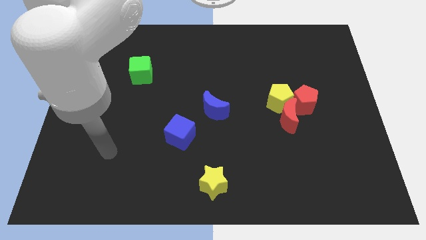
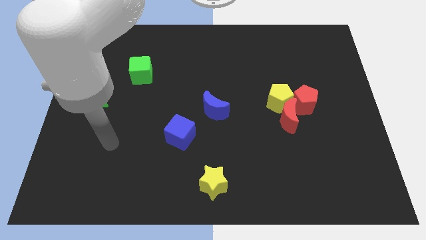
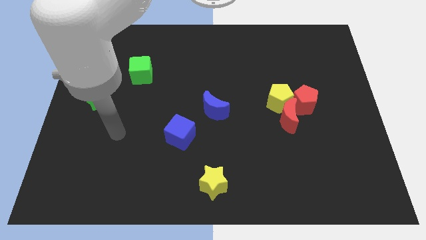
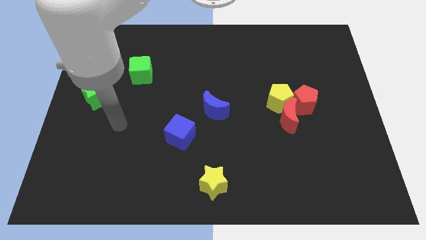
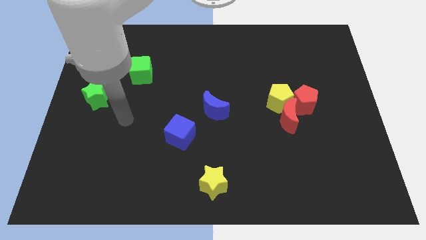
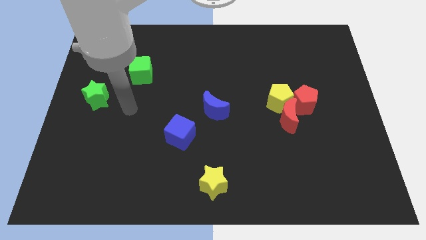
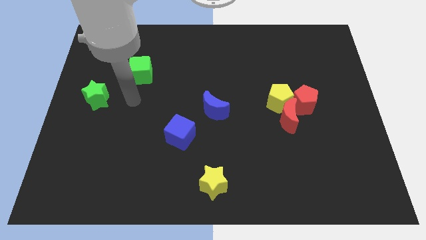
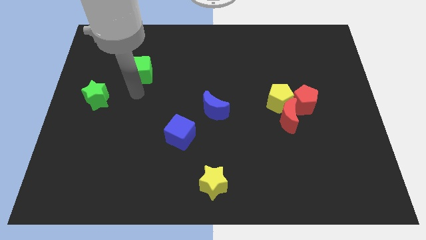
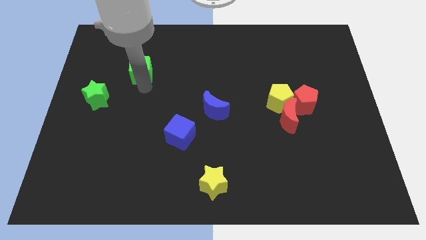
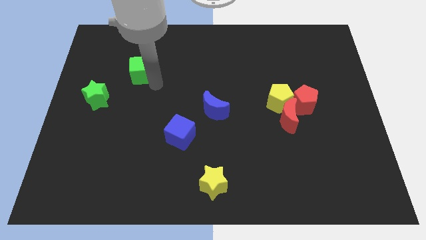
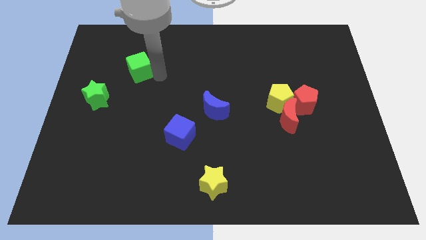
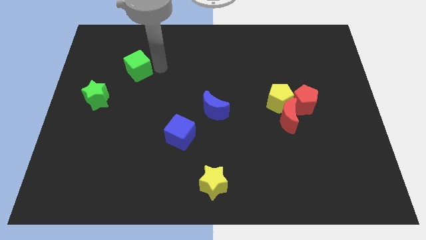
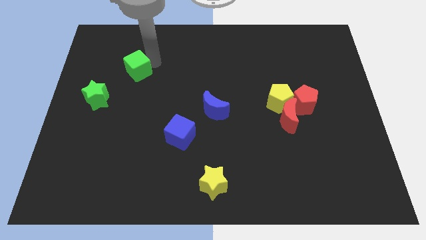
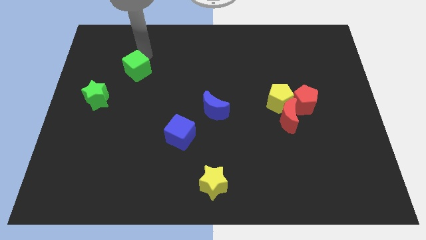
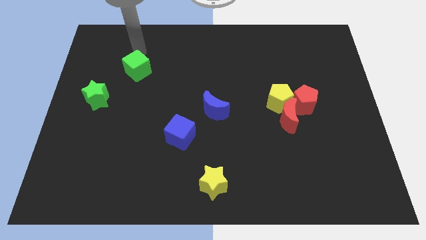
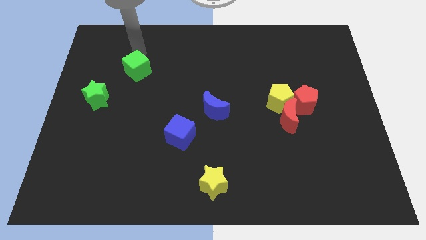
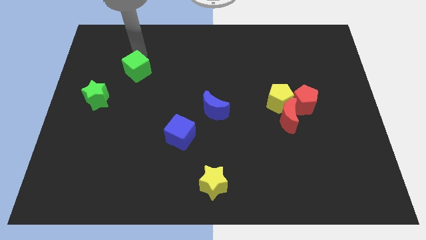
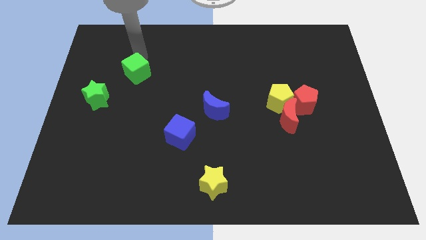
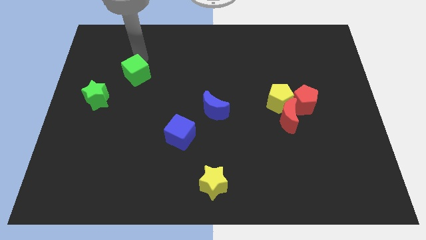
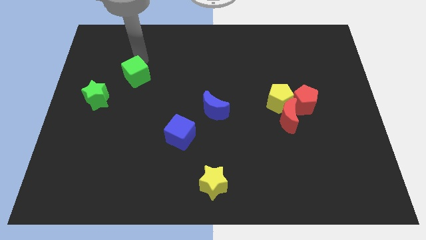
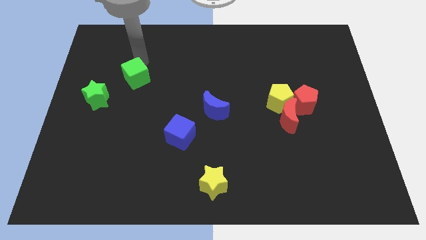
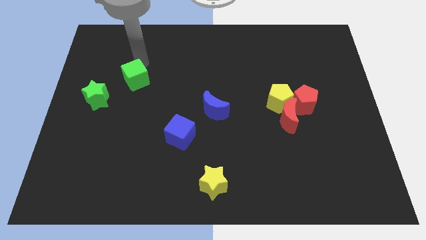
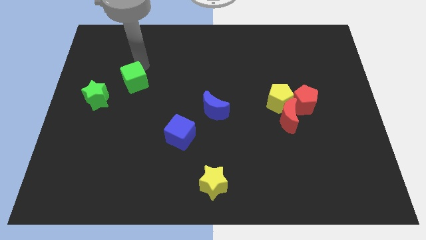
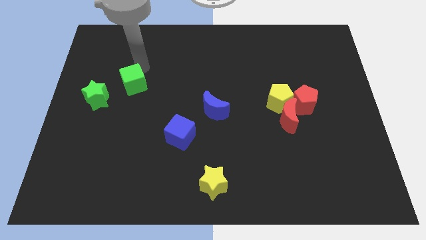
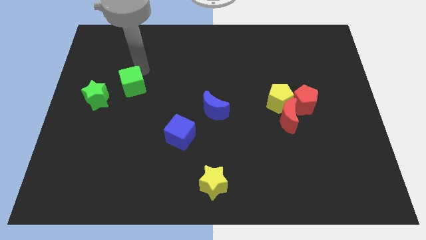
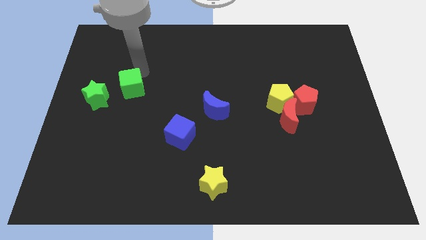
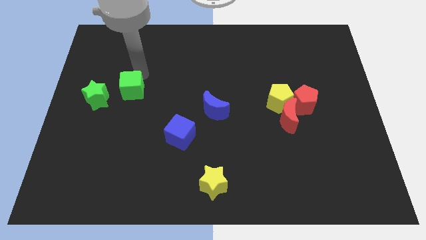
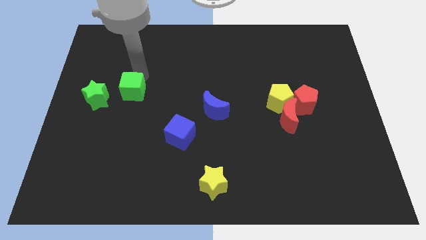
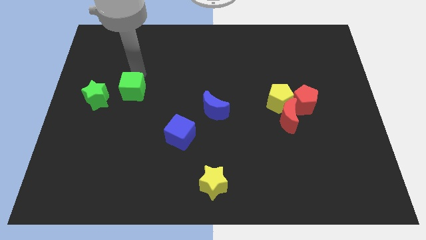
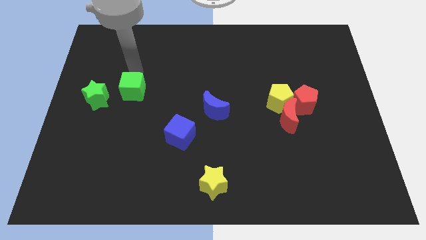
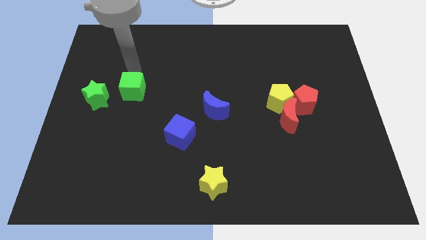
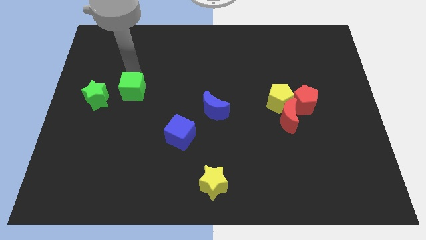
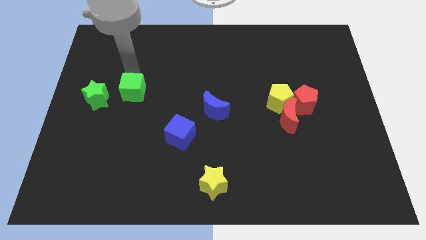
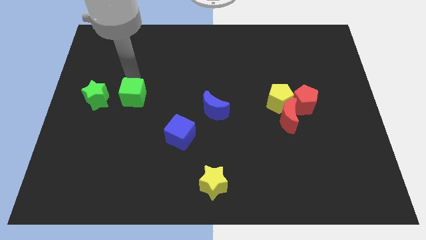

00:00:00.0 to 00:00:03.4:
slide the green cube downwards slightly

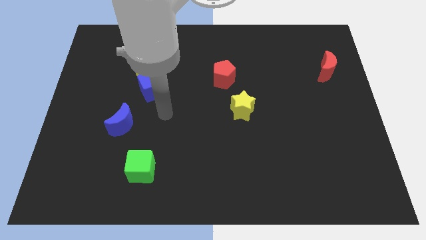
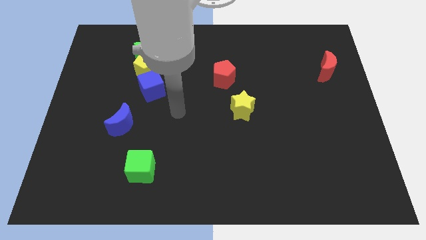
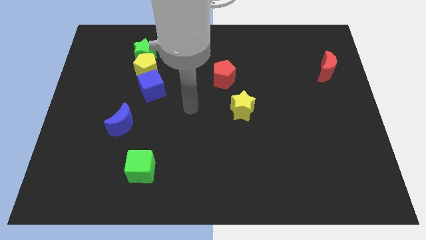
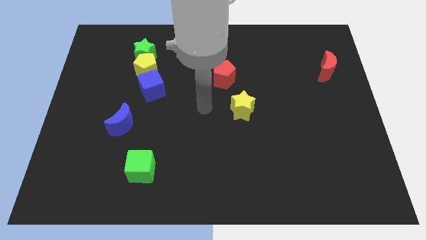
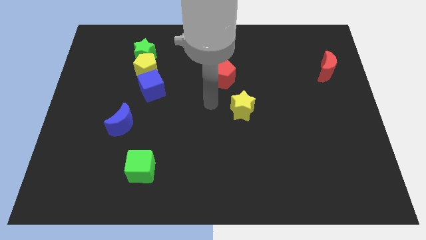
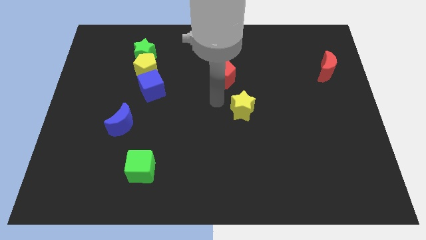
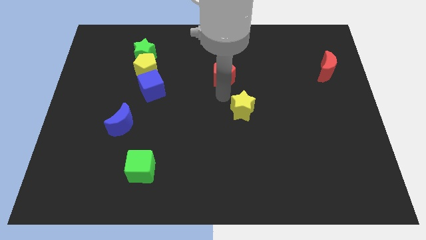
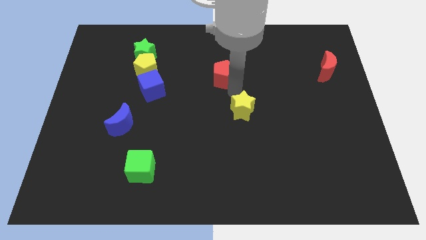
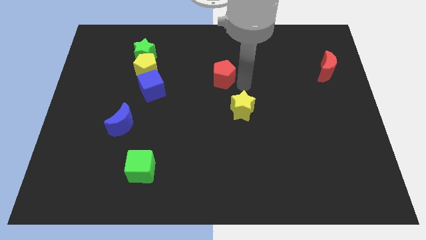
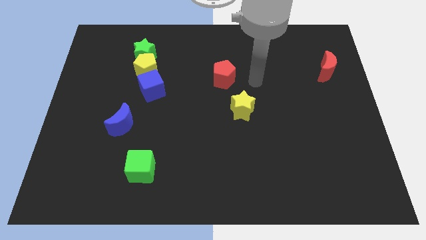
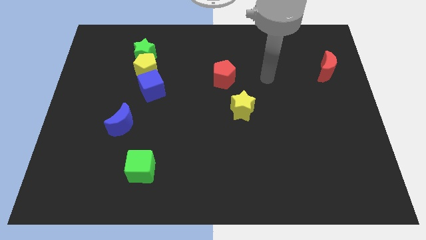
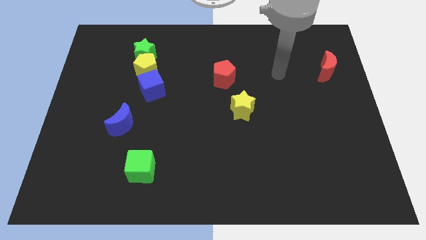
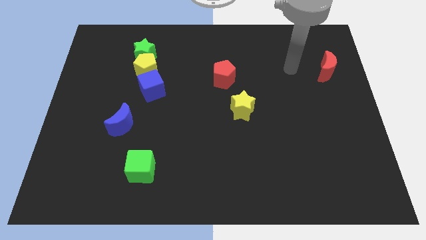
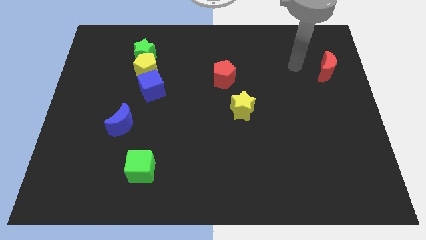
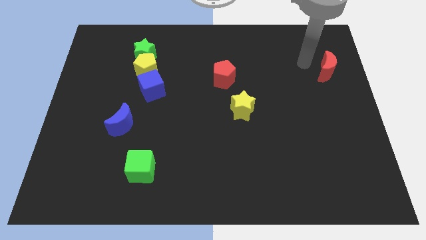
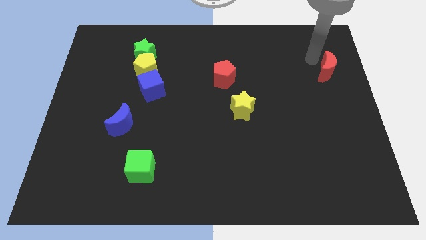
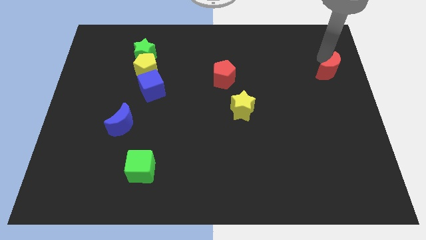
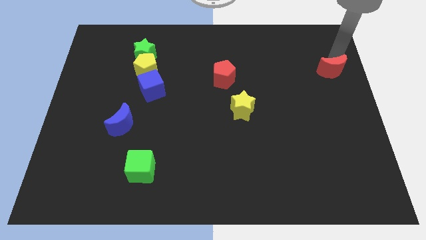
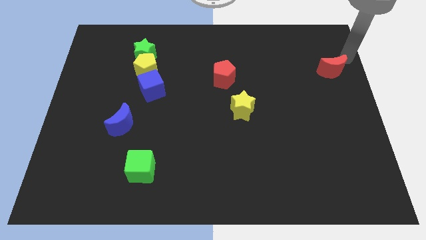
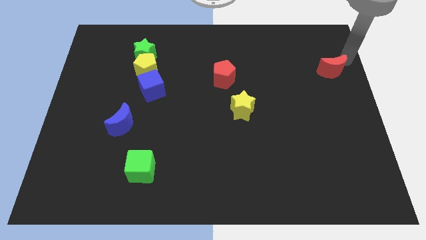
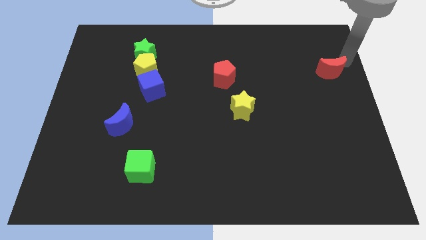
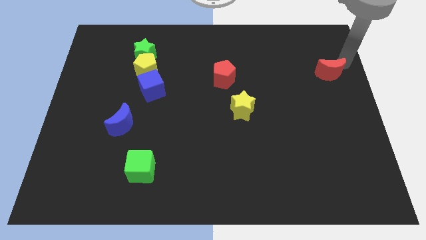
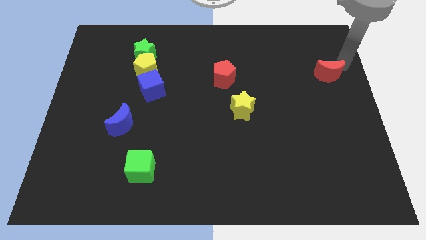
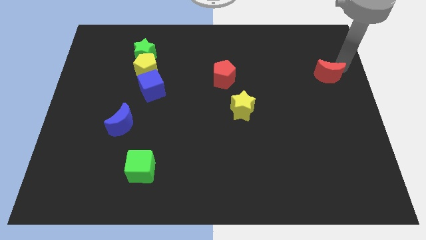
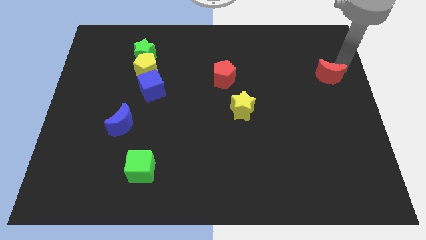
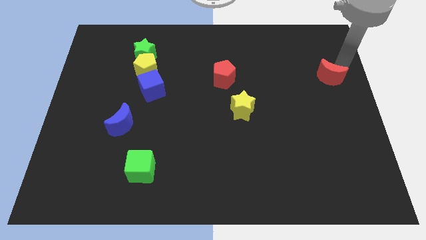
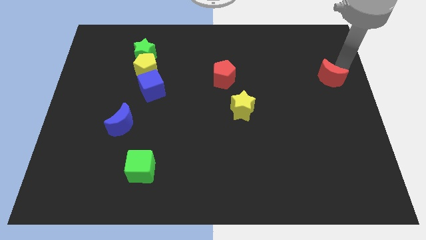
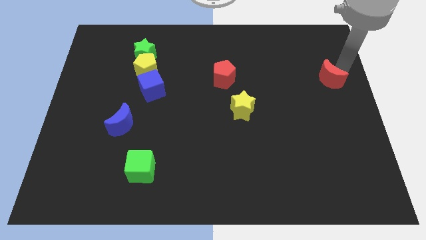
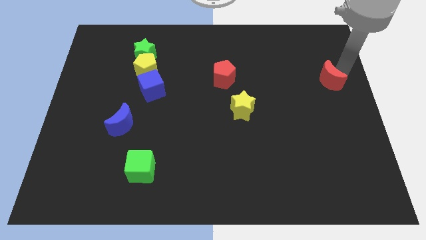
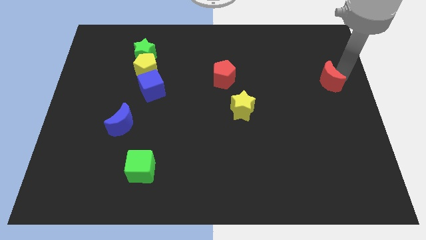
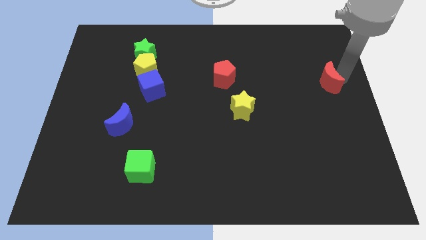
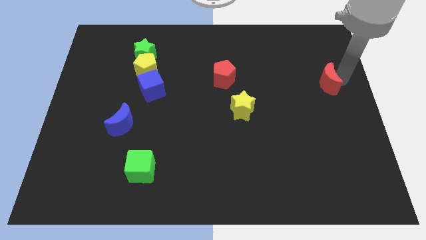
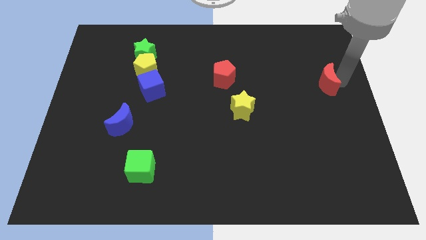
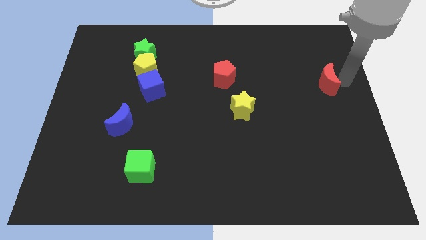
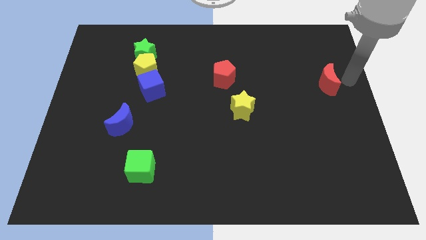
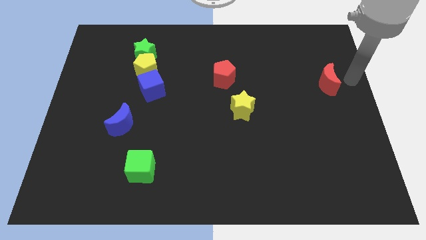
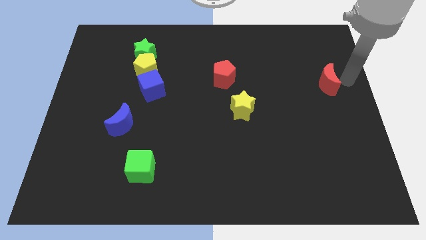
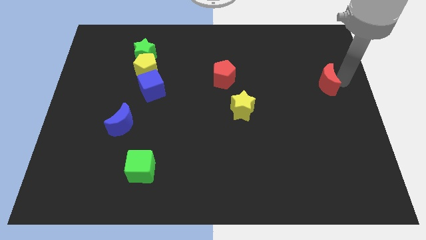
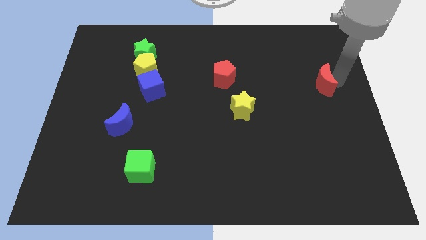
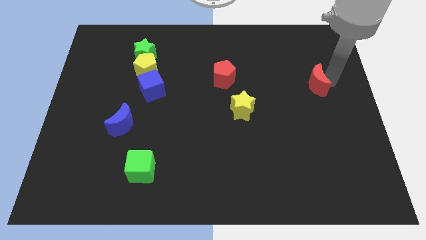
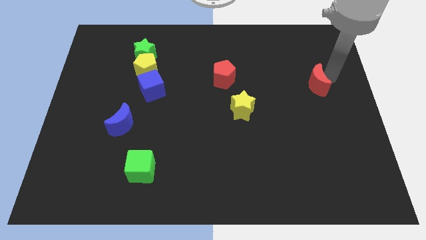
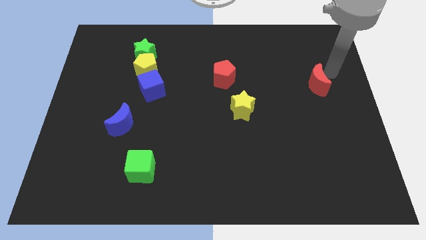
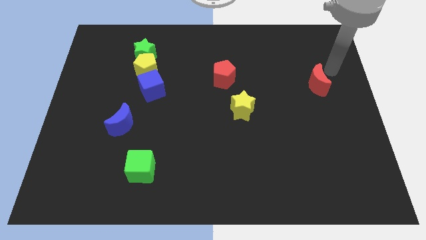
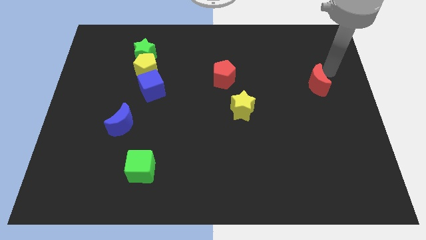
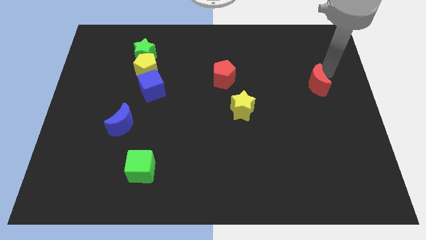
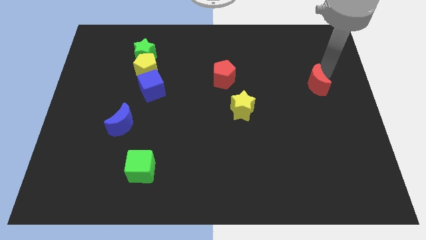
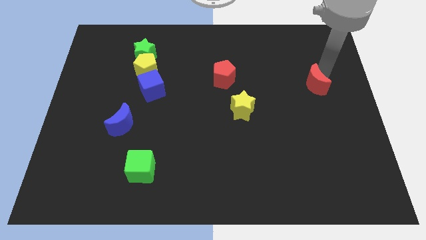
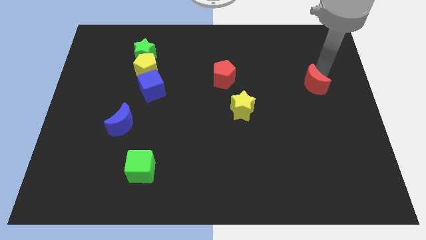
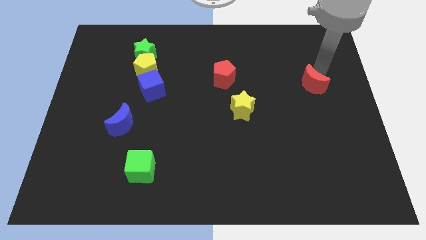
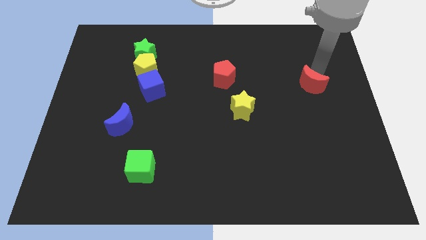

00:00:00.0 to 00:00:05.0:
push the red moon a little down and left diagonally
